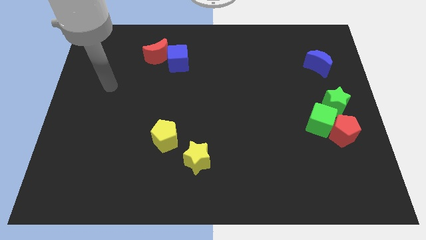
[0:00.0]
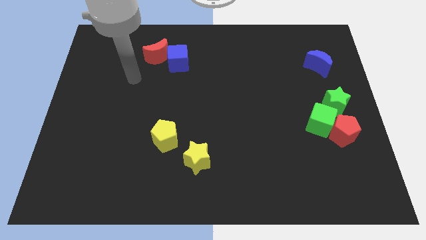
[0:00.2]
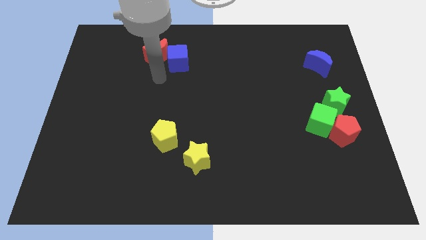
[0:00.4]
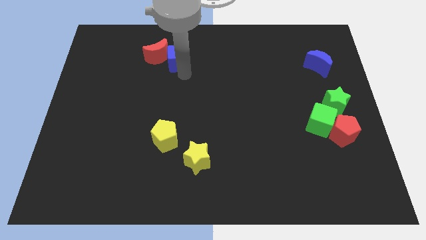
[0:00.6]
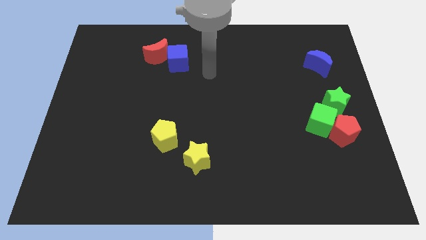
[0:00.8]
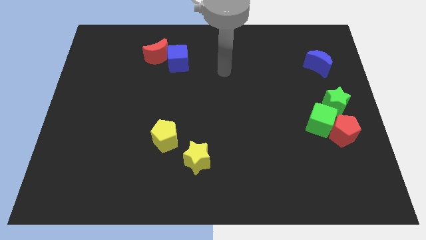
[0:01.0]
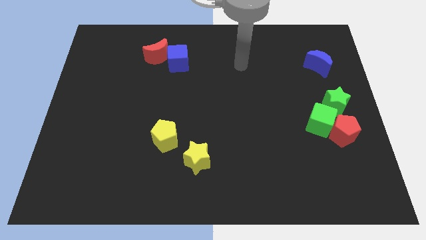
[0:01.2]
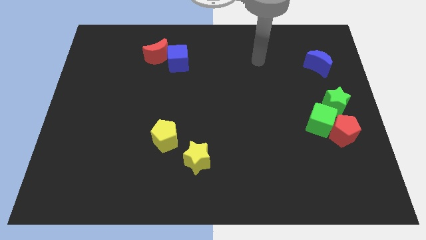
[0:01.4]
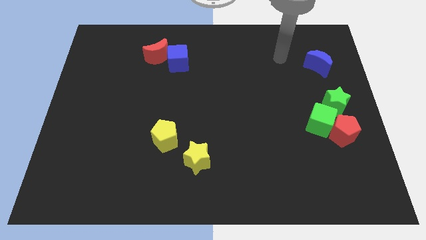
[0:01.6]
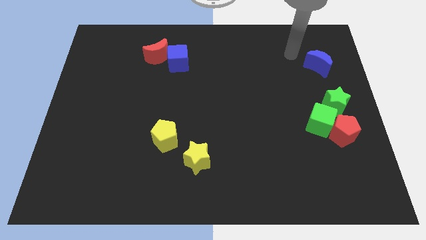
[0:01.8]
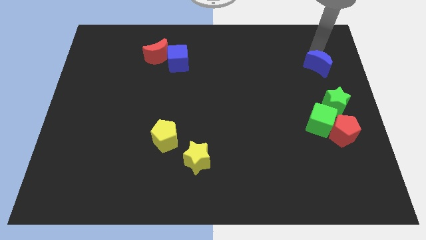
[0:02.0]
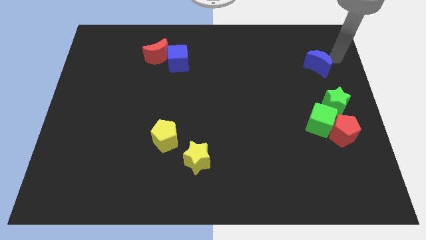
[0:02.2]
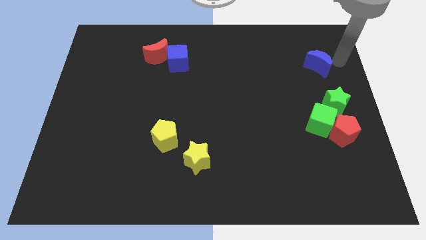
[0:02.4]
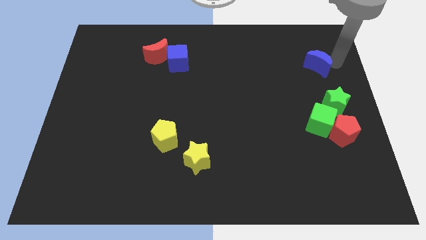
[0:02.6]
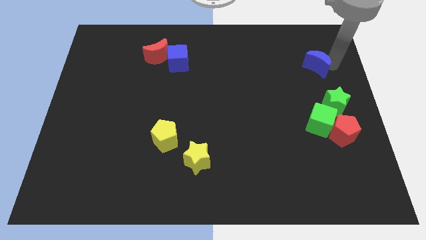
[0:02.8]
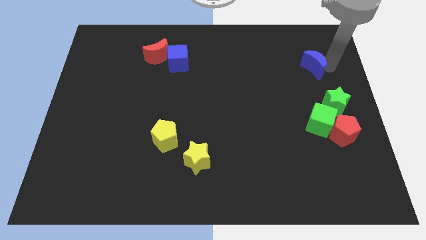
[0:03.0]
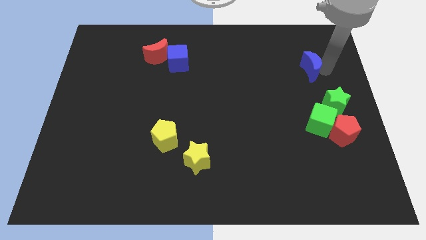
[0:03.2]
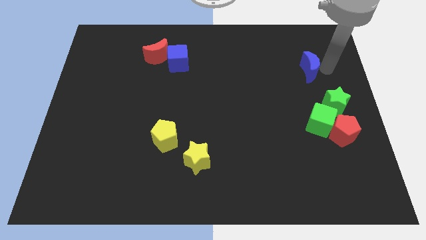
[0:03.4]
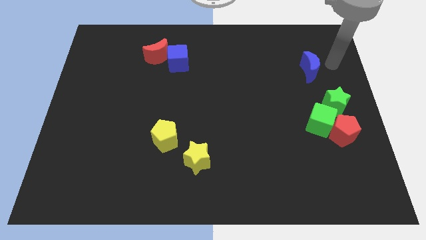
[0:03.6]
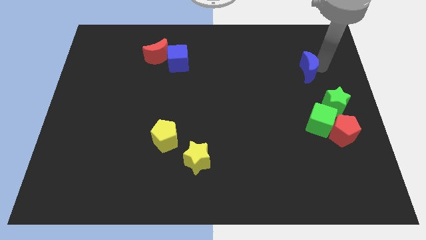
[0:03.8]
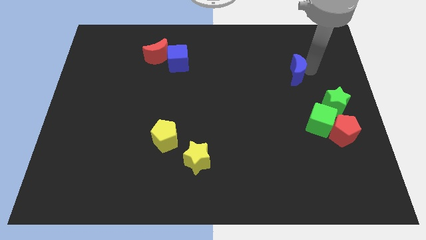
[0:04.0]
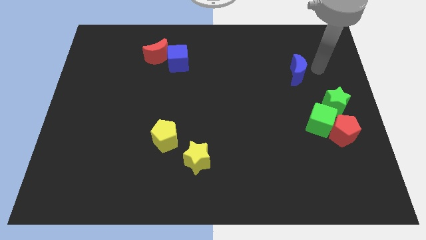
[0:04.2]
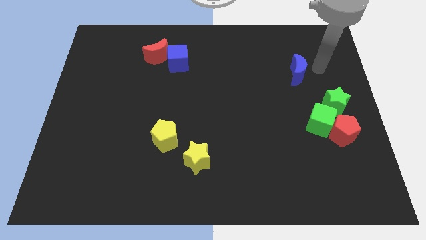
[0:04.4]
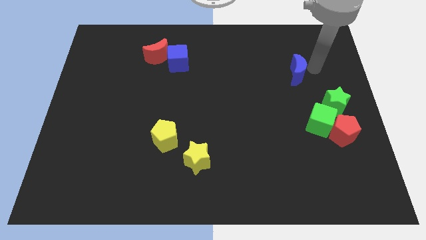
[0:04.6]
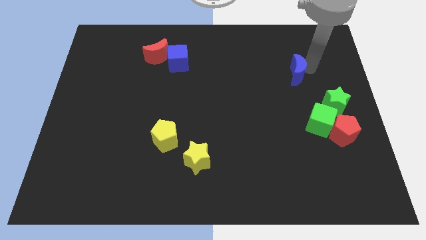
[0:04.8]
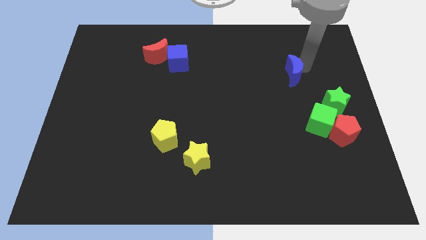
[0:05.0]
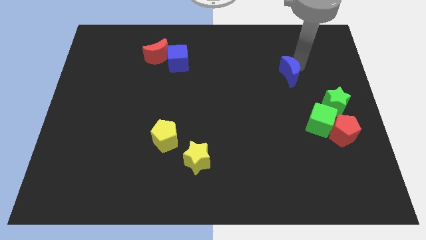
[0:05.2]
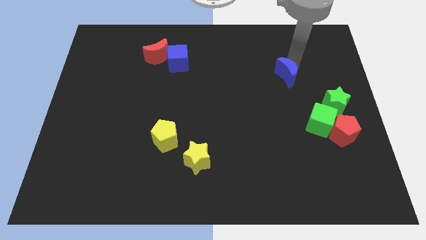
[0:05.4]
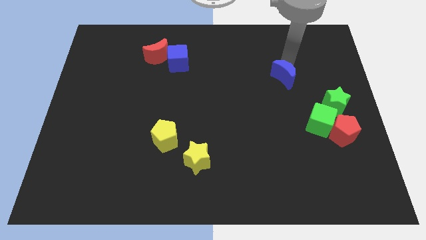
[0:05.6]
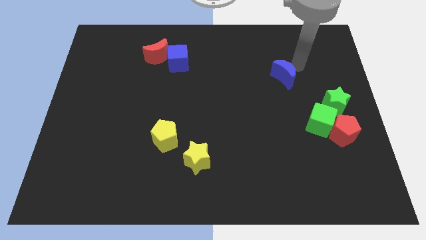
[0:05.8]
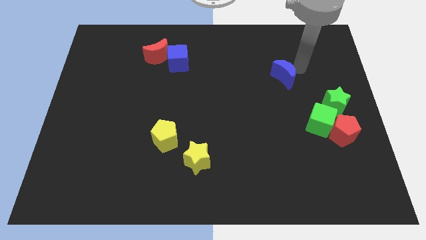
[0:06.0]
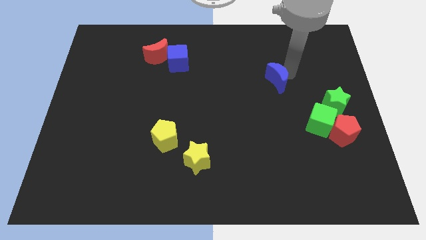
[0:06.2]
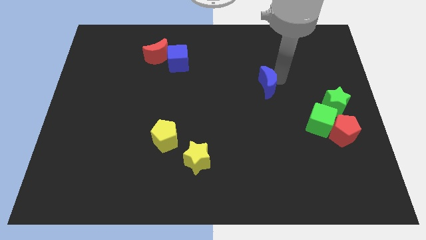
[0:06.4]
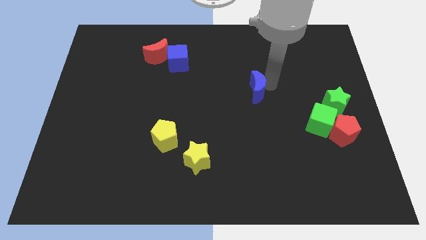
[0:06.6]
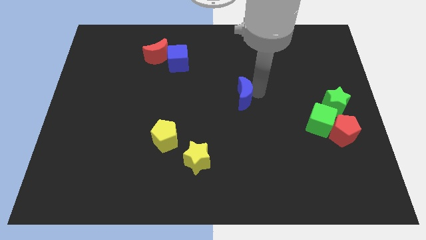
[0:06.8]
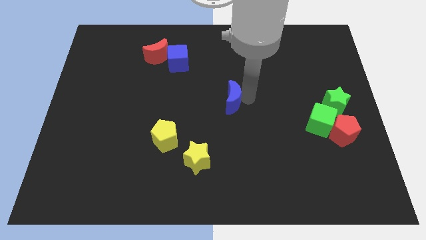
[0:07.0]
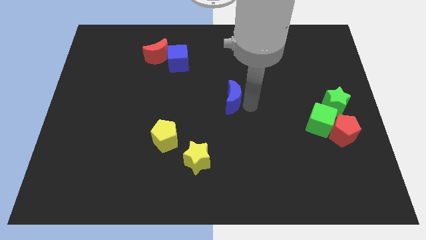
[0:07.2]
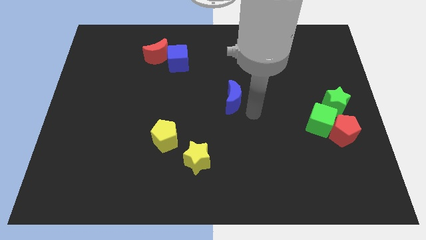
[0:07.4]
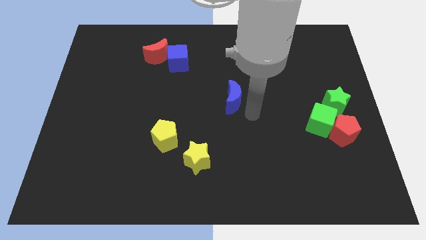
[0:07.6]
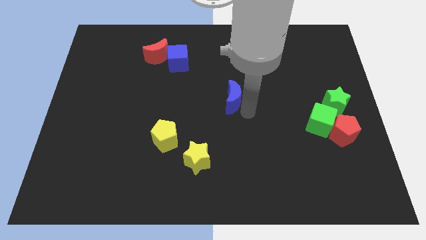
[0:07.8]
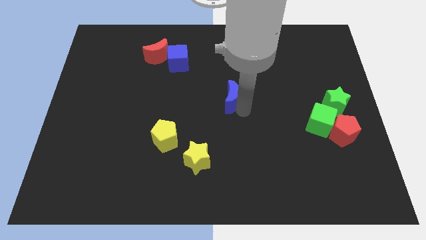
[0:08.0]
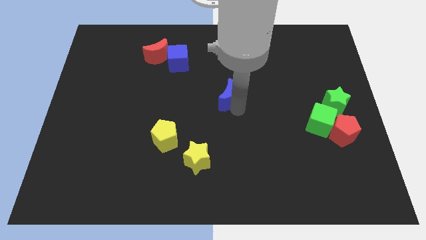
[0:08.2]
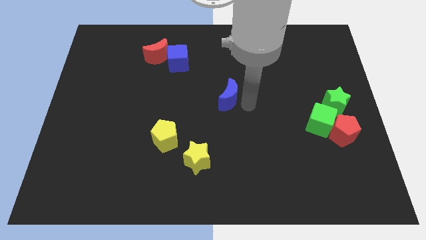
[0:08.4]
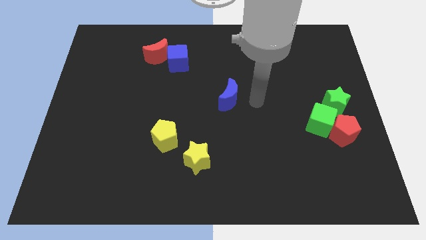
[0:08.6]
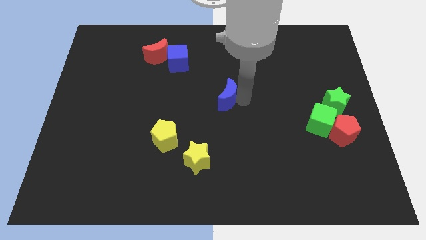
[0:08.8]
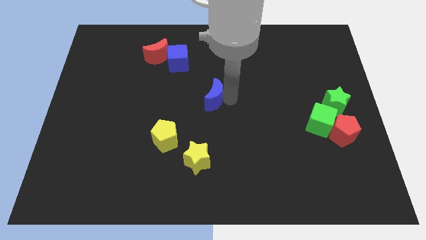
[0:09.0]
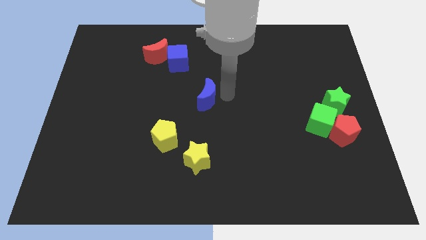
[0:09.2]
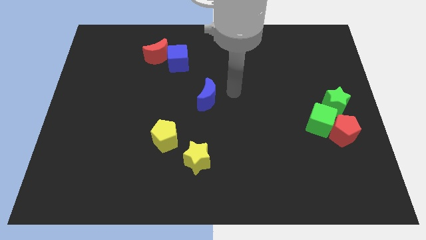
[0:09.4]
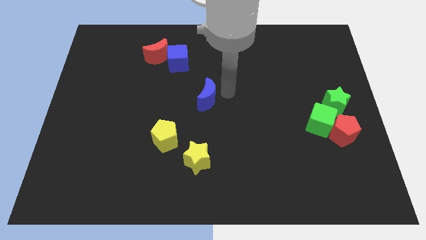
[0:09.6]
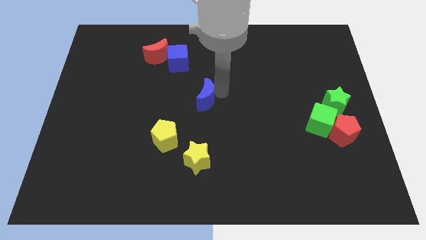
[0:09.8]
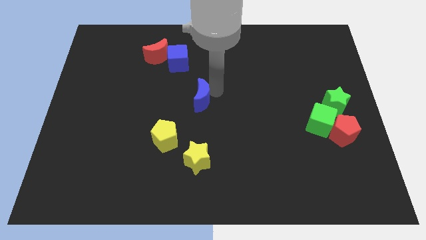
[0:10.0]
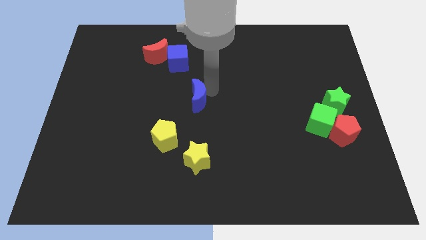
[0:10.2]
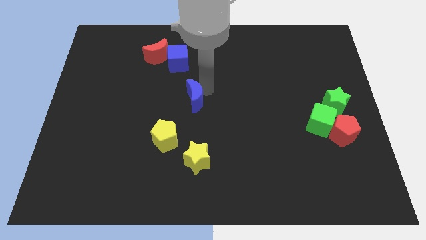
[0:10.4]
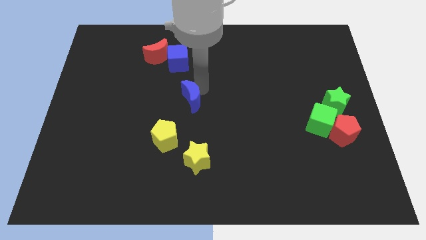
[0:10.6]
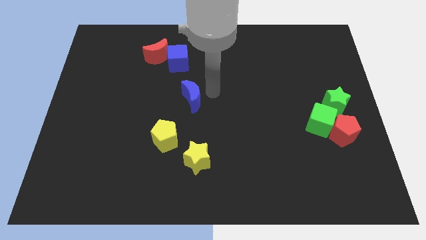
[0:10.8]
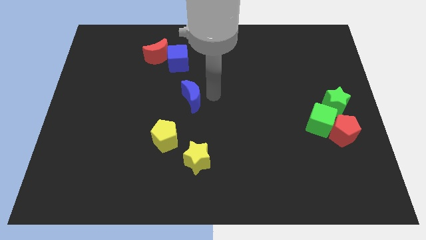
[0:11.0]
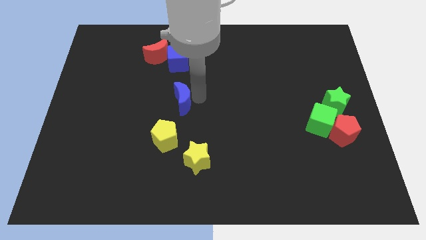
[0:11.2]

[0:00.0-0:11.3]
put the blue moon to the top side of the yellow pentagon

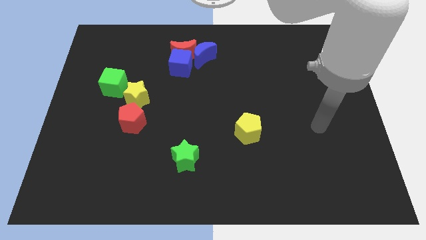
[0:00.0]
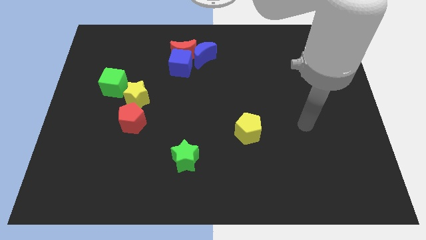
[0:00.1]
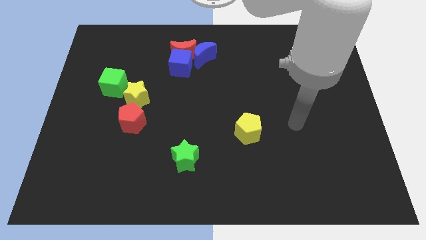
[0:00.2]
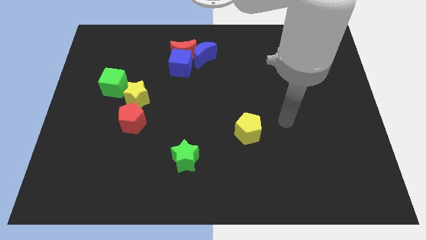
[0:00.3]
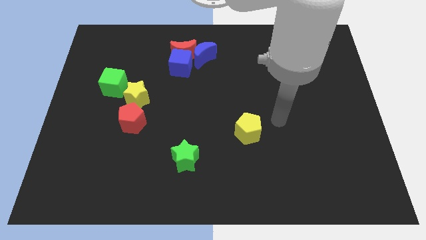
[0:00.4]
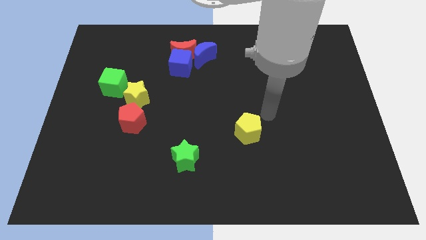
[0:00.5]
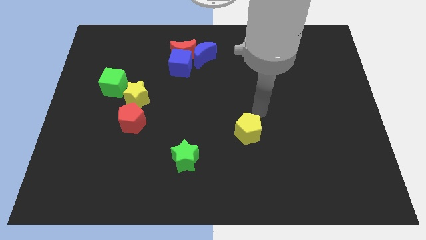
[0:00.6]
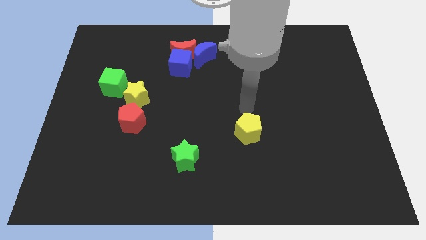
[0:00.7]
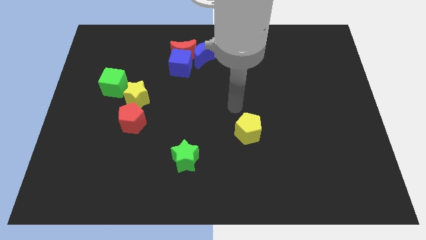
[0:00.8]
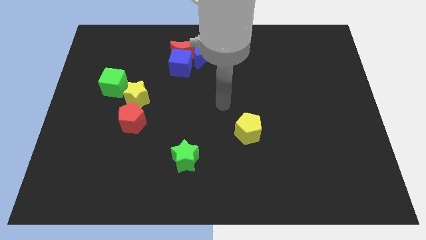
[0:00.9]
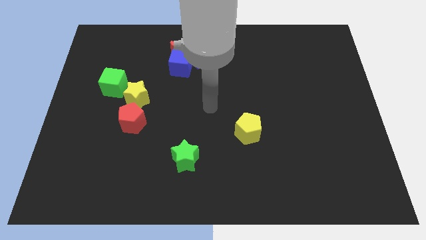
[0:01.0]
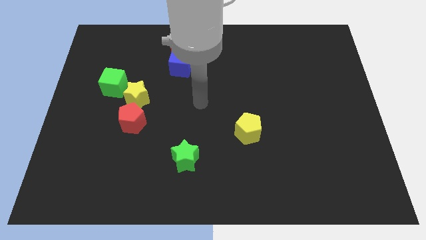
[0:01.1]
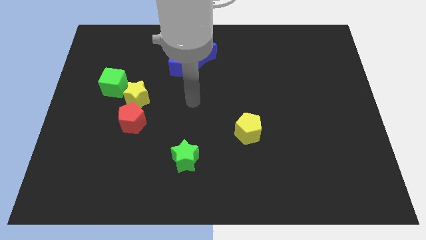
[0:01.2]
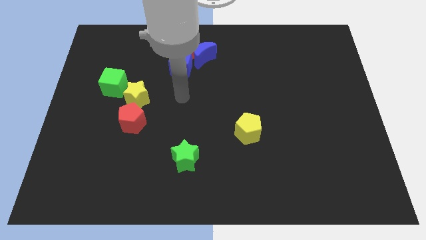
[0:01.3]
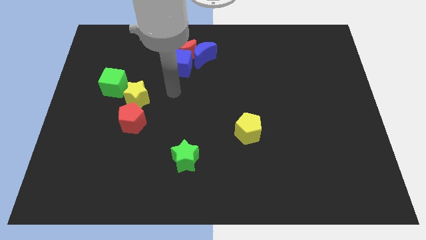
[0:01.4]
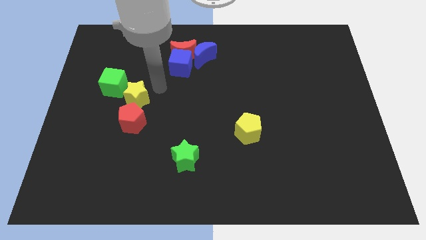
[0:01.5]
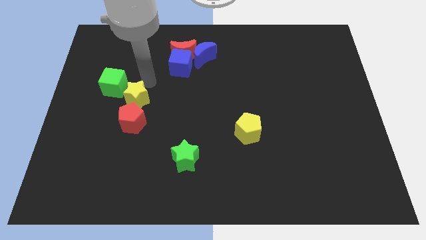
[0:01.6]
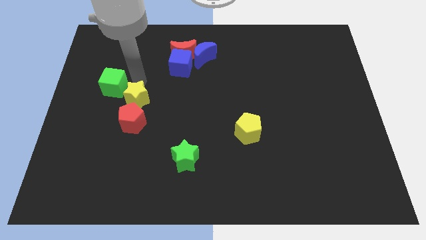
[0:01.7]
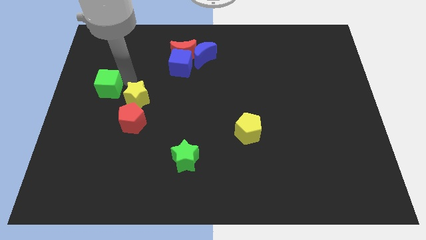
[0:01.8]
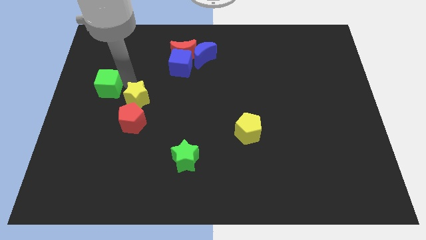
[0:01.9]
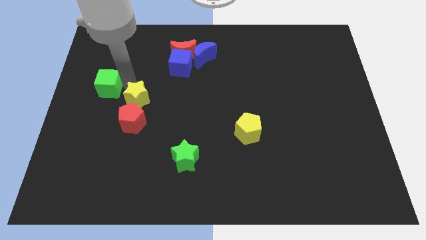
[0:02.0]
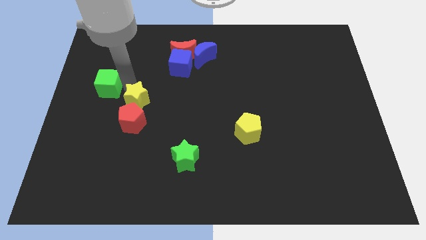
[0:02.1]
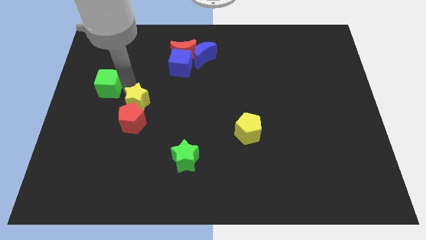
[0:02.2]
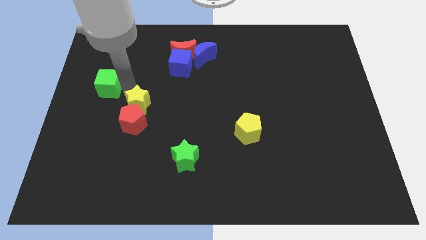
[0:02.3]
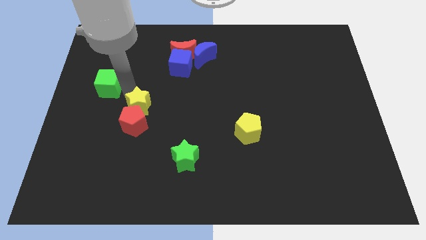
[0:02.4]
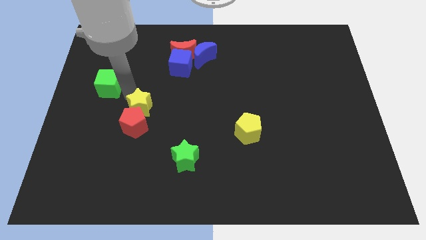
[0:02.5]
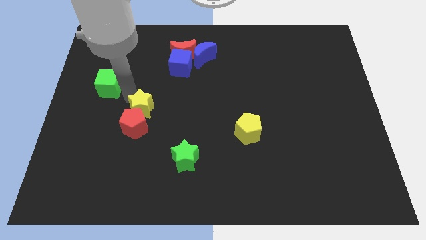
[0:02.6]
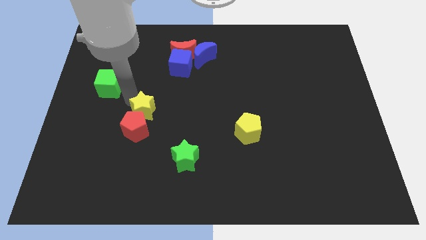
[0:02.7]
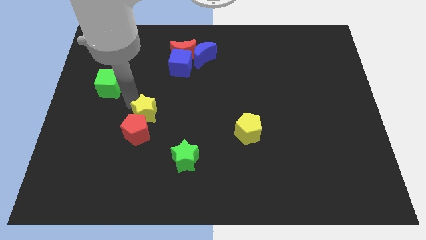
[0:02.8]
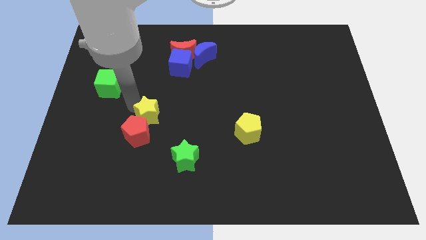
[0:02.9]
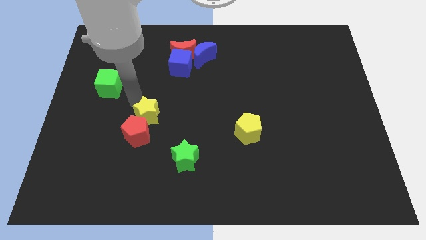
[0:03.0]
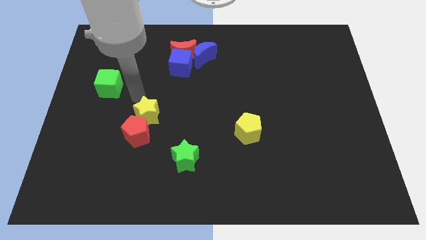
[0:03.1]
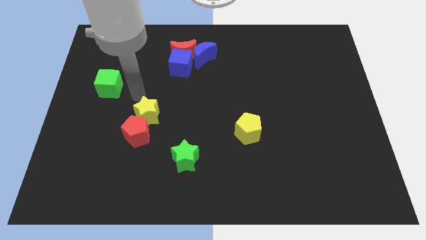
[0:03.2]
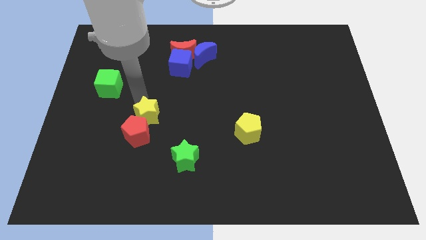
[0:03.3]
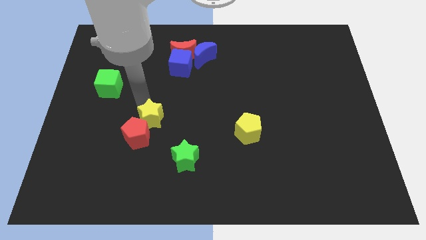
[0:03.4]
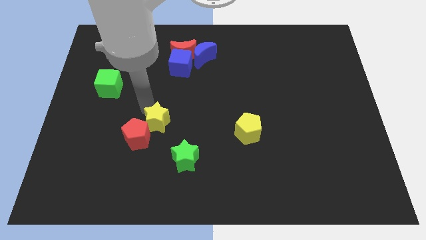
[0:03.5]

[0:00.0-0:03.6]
move the yellow star to the top left side of the green star
